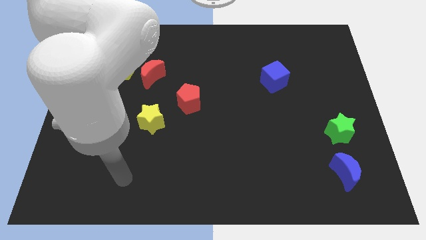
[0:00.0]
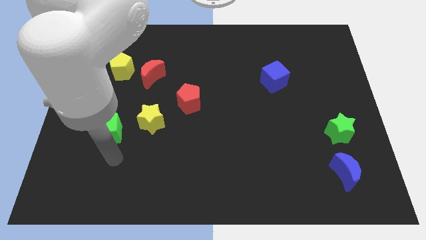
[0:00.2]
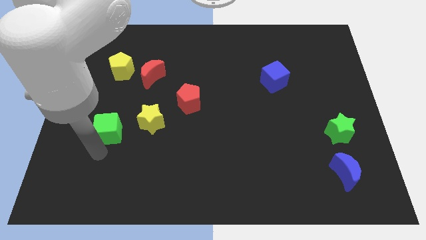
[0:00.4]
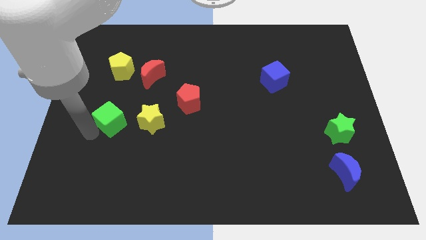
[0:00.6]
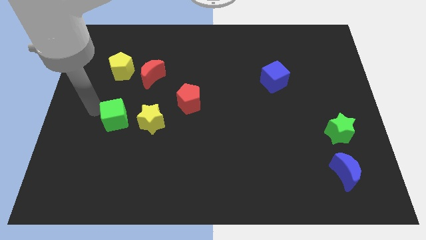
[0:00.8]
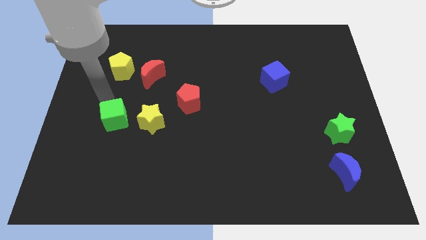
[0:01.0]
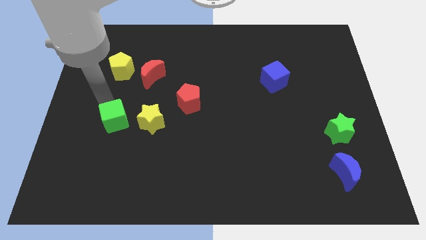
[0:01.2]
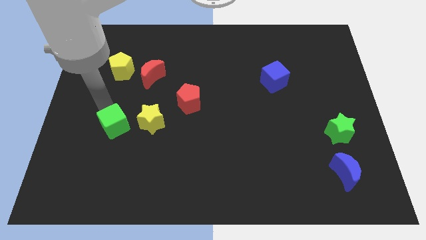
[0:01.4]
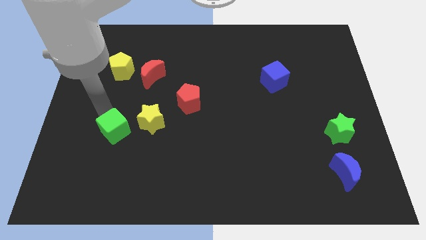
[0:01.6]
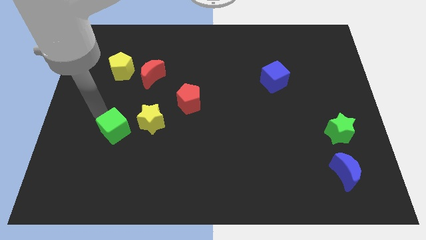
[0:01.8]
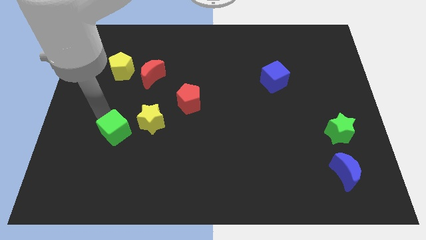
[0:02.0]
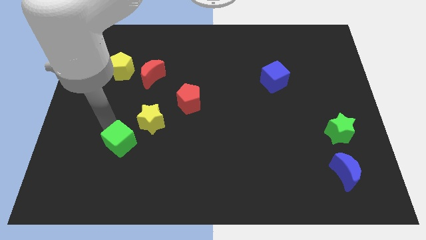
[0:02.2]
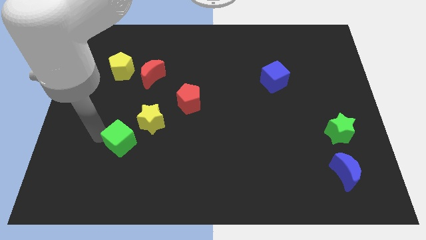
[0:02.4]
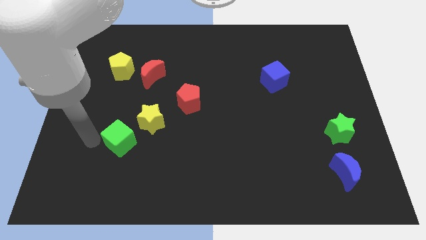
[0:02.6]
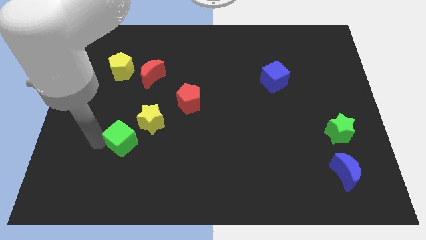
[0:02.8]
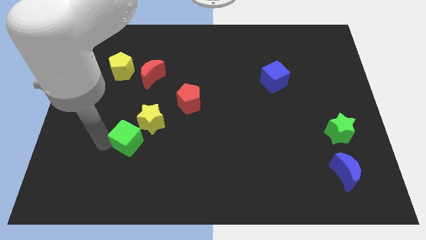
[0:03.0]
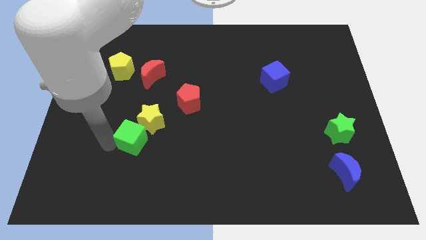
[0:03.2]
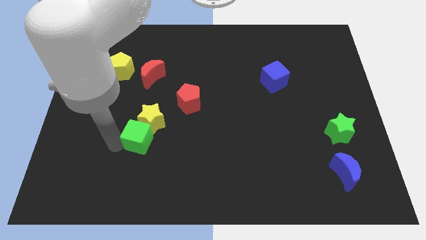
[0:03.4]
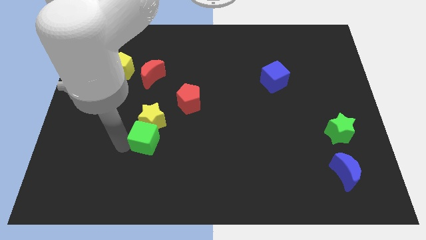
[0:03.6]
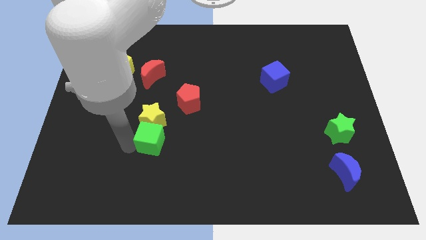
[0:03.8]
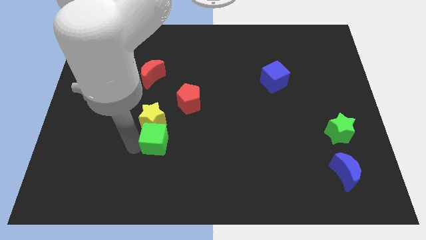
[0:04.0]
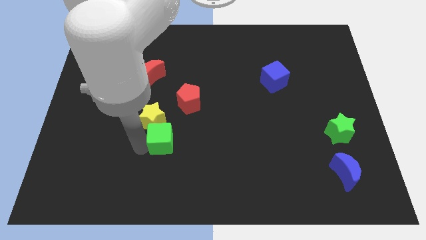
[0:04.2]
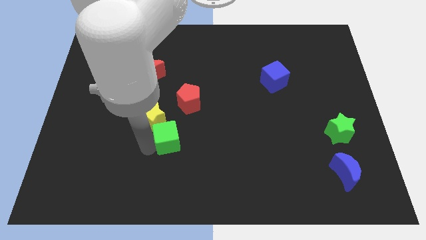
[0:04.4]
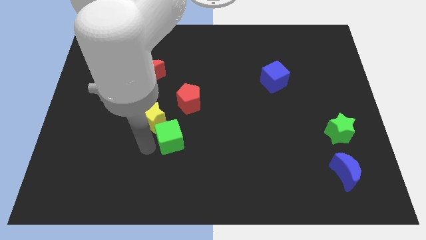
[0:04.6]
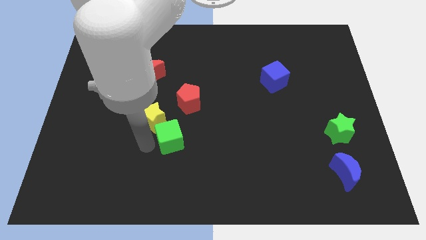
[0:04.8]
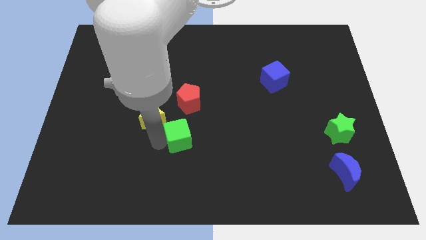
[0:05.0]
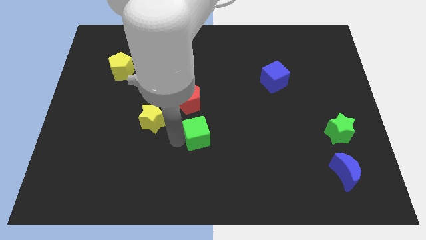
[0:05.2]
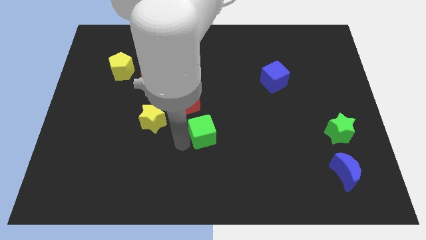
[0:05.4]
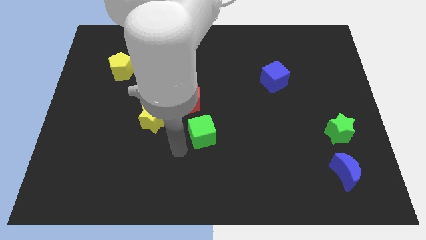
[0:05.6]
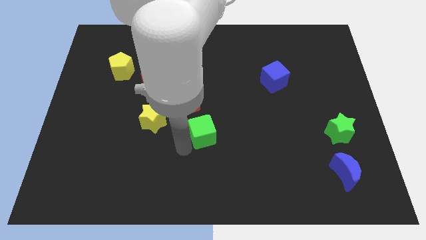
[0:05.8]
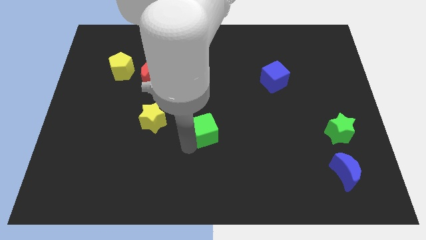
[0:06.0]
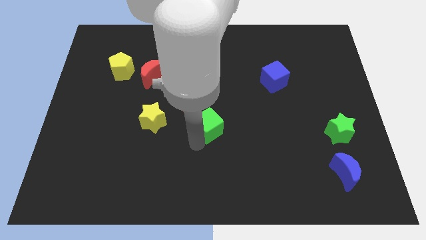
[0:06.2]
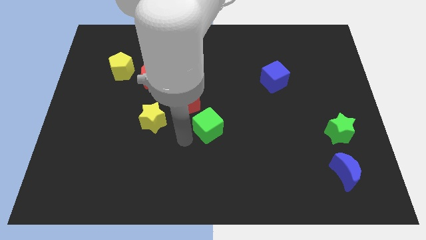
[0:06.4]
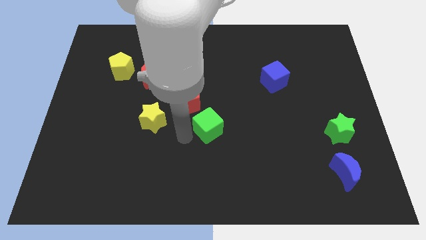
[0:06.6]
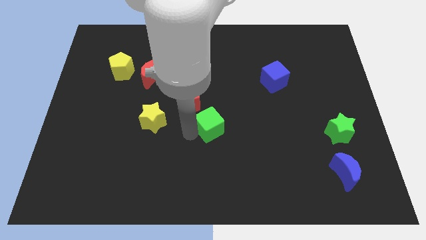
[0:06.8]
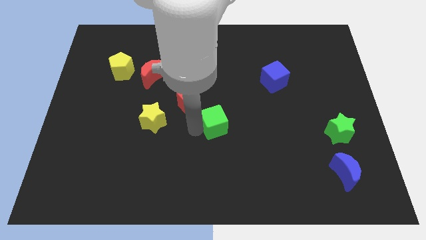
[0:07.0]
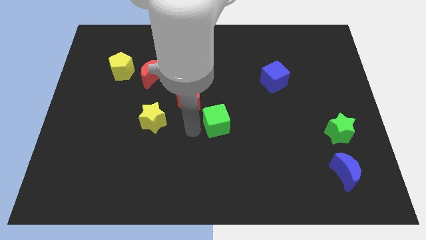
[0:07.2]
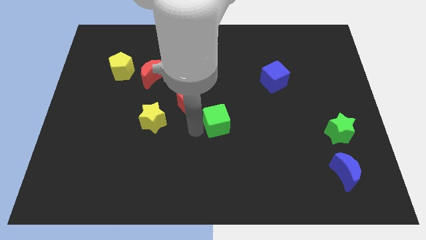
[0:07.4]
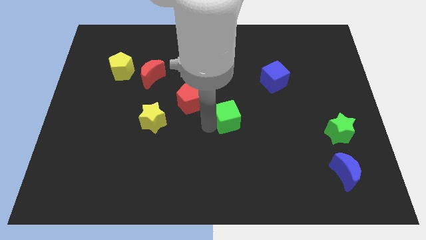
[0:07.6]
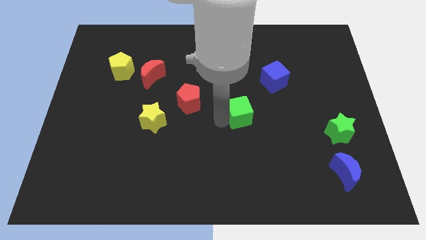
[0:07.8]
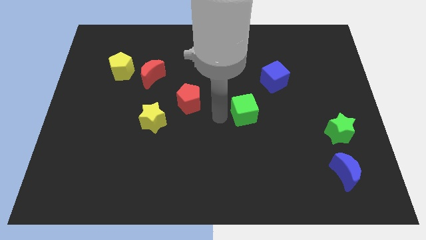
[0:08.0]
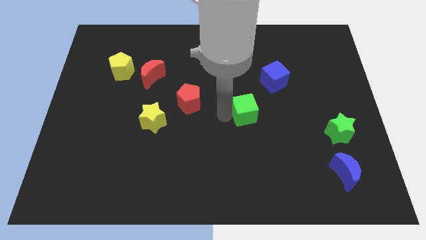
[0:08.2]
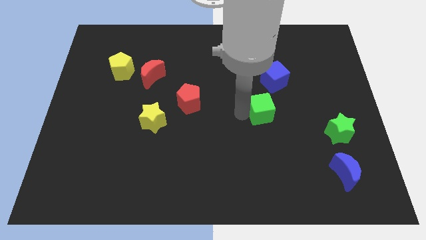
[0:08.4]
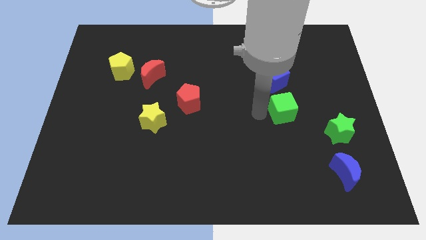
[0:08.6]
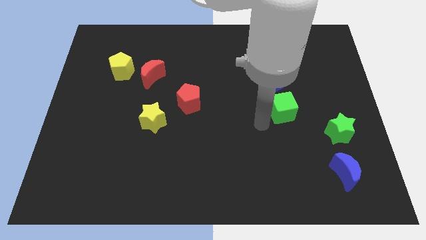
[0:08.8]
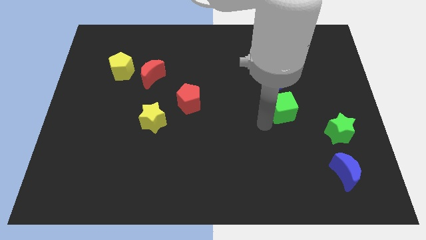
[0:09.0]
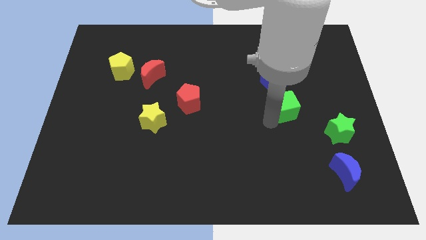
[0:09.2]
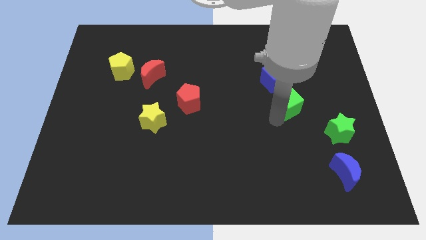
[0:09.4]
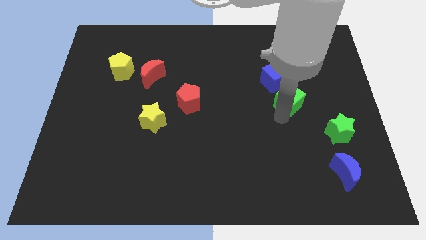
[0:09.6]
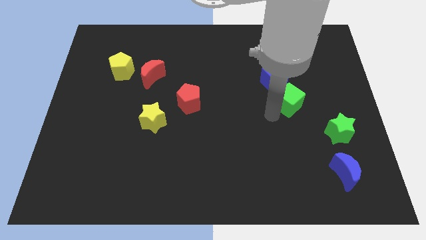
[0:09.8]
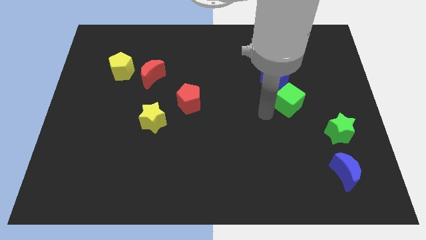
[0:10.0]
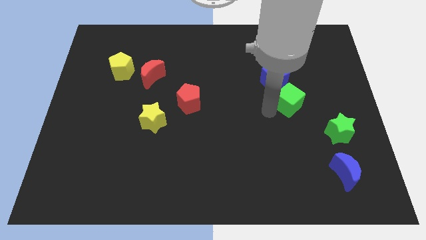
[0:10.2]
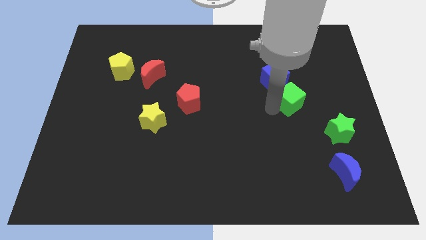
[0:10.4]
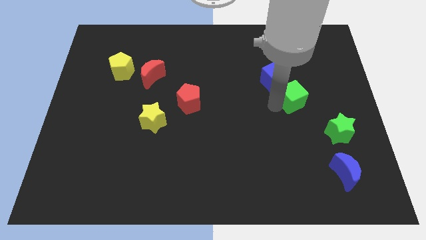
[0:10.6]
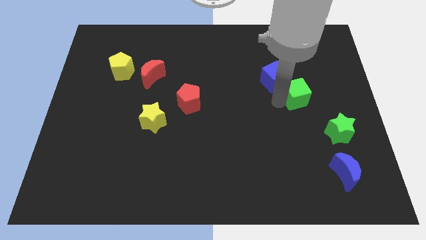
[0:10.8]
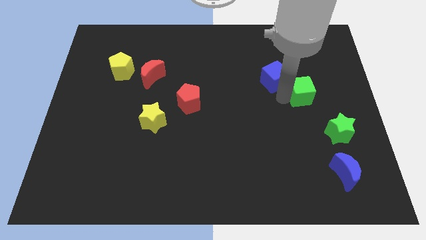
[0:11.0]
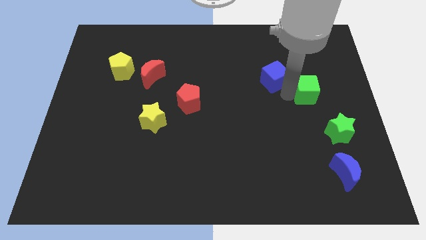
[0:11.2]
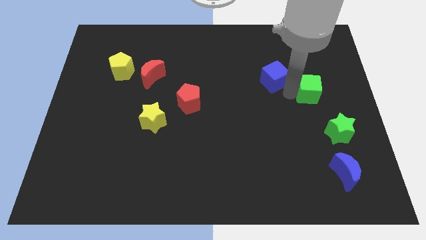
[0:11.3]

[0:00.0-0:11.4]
move the green cube above the green star

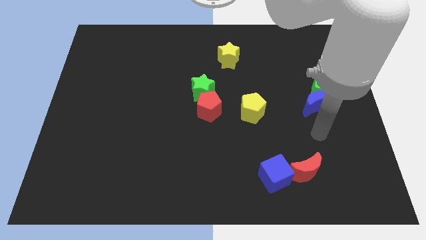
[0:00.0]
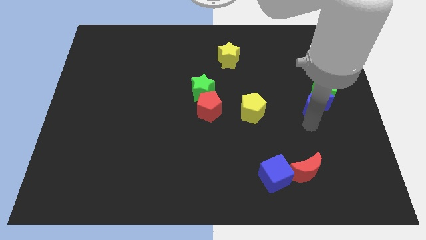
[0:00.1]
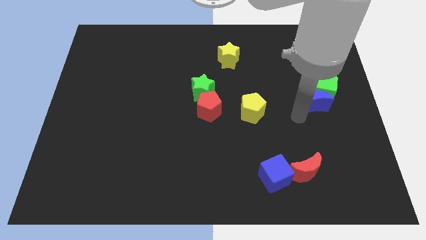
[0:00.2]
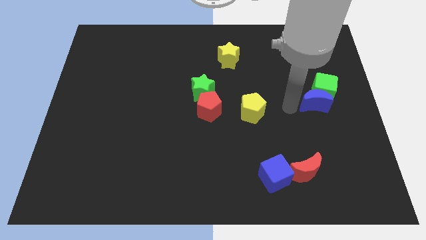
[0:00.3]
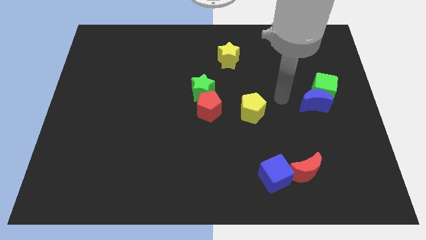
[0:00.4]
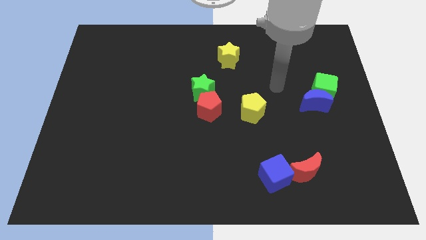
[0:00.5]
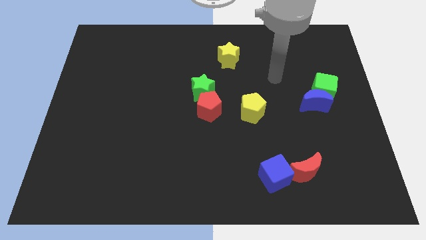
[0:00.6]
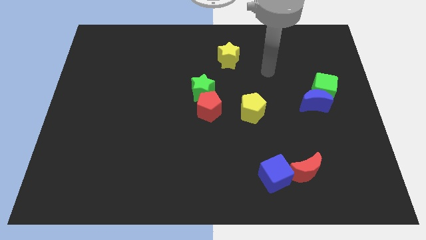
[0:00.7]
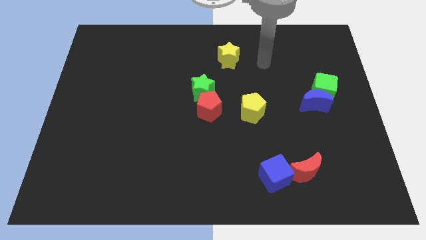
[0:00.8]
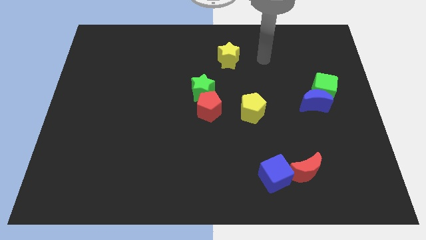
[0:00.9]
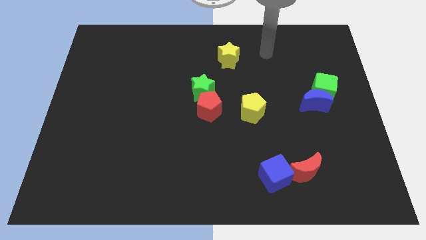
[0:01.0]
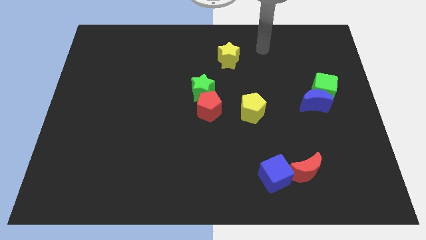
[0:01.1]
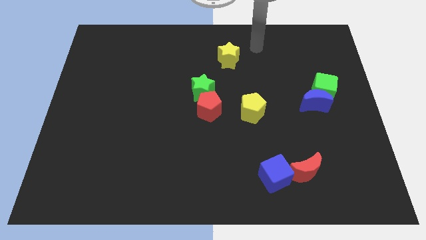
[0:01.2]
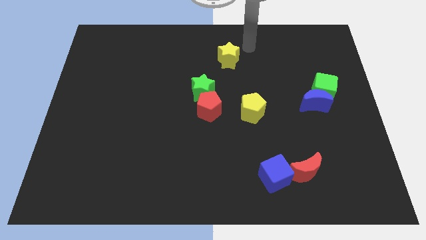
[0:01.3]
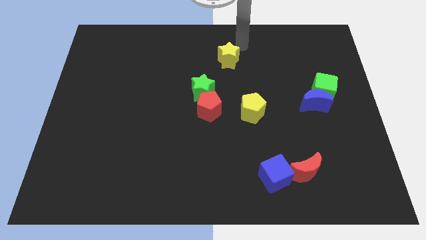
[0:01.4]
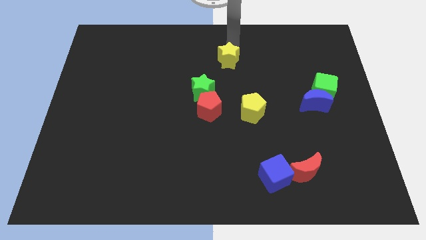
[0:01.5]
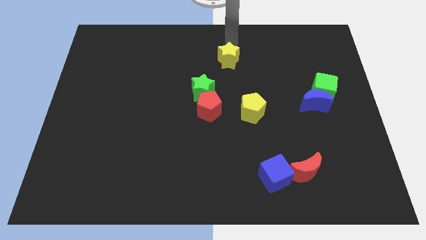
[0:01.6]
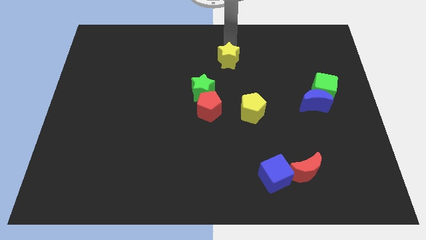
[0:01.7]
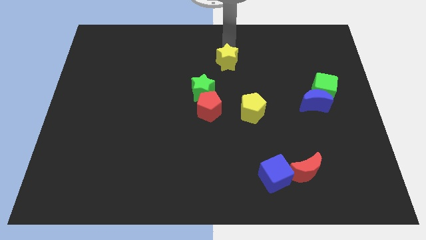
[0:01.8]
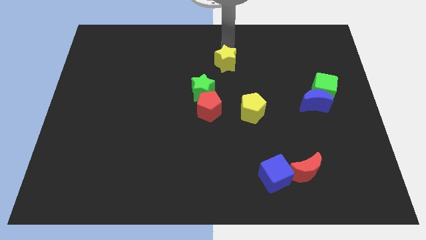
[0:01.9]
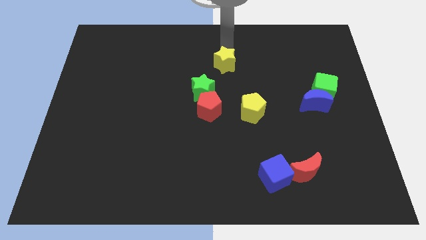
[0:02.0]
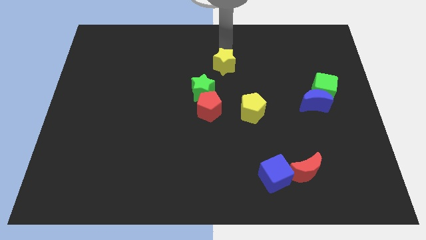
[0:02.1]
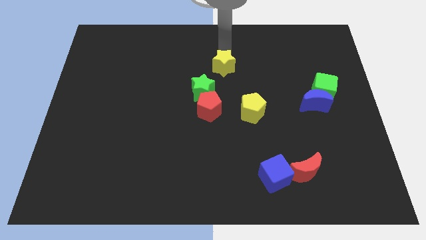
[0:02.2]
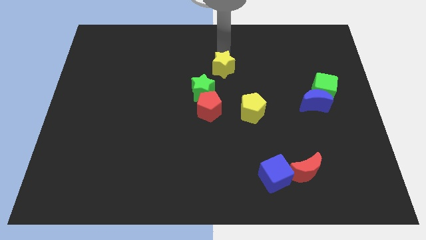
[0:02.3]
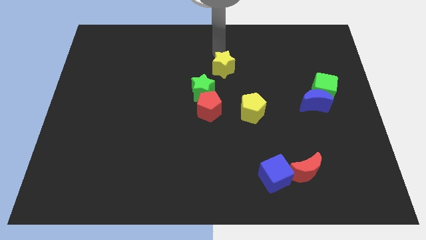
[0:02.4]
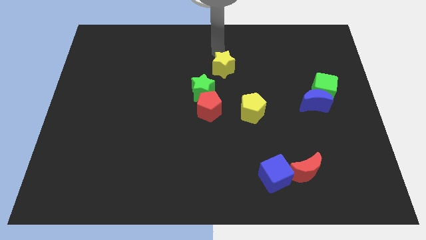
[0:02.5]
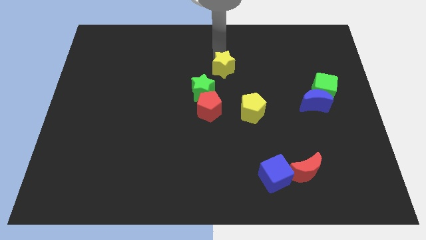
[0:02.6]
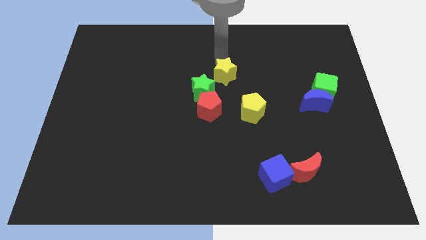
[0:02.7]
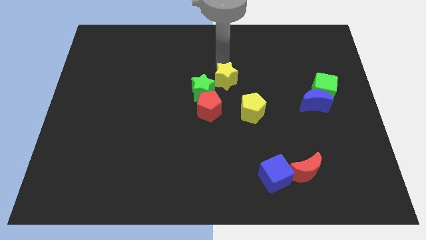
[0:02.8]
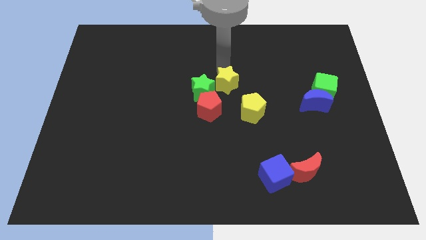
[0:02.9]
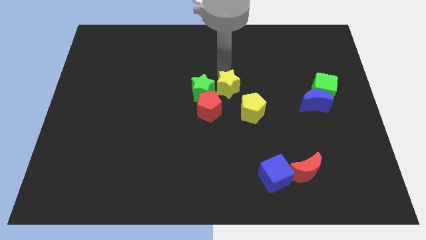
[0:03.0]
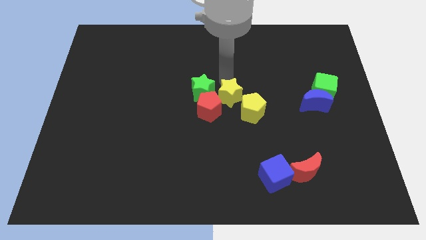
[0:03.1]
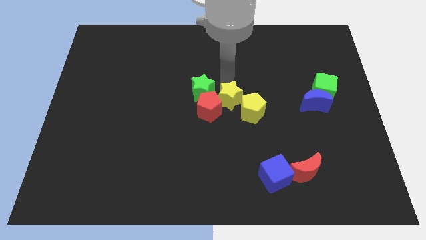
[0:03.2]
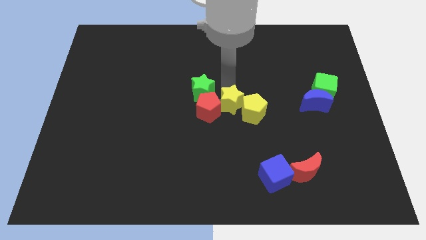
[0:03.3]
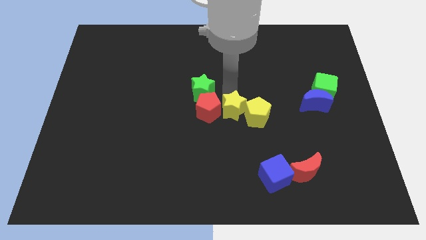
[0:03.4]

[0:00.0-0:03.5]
put the yellow star to the bottom right side of the red pentagon
